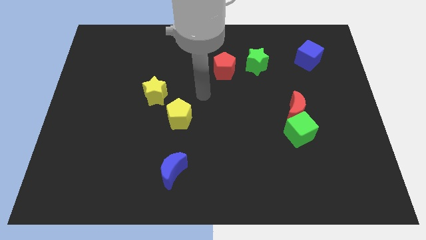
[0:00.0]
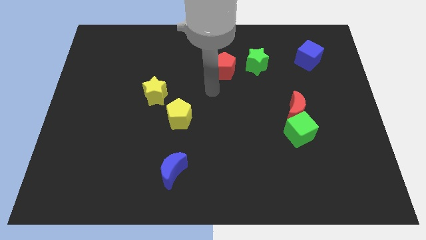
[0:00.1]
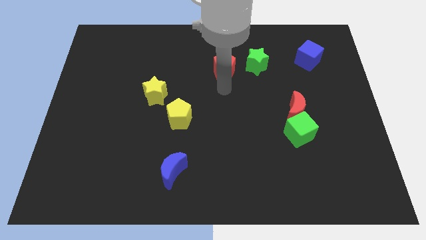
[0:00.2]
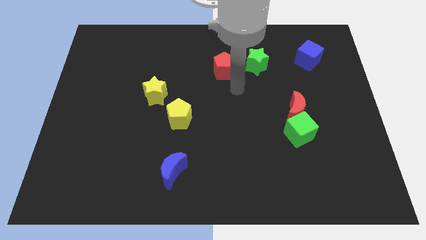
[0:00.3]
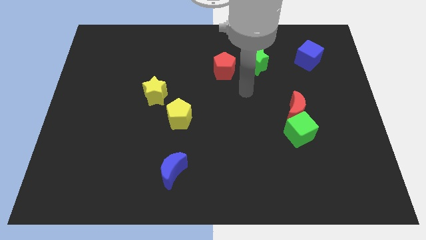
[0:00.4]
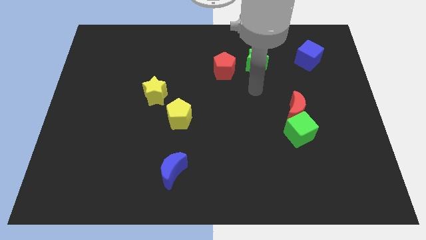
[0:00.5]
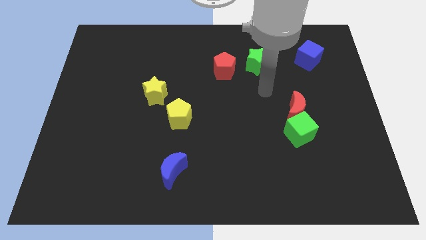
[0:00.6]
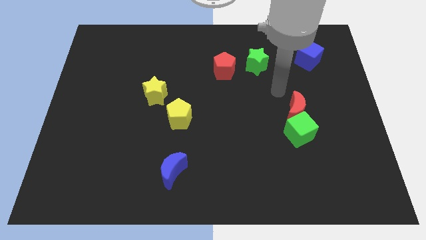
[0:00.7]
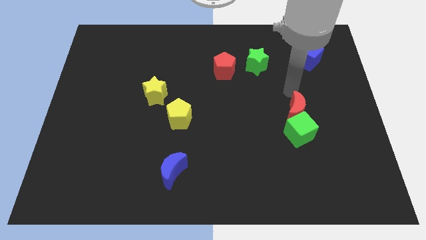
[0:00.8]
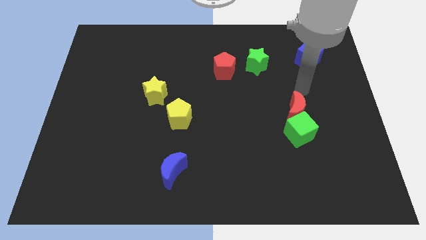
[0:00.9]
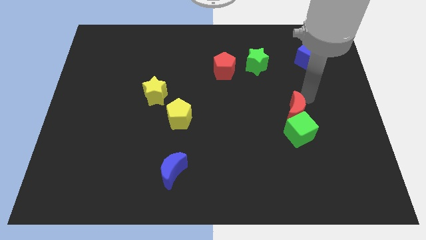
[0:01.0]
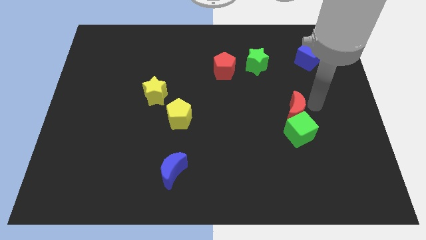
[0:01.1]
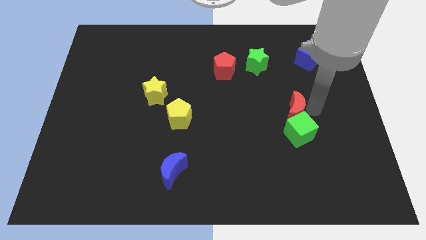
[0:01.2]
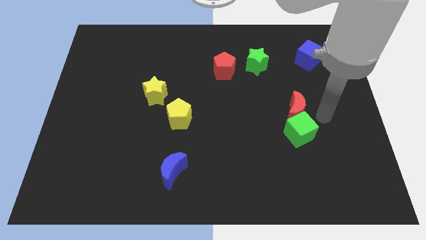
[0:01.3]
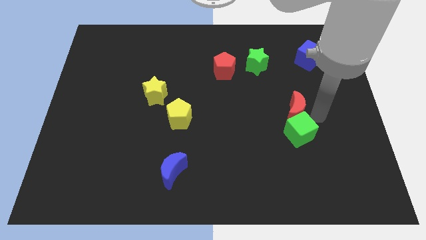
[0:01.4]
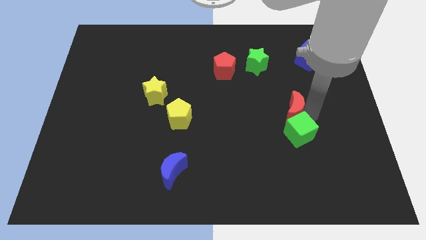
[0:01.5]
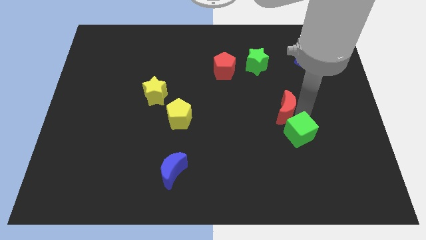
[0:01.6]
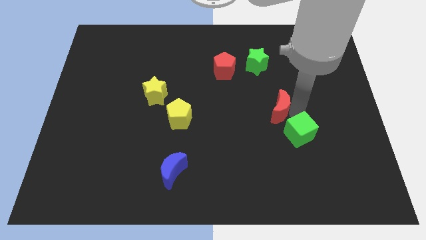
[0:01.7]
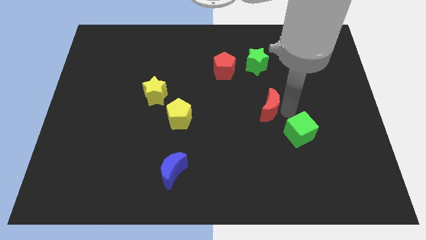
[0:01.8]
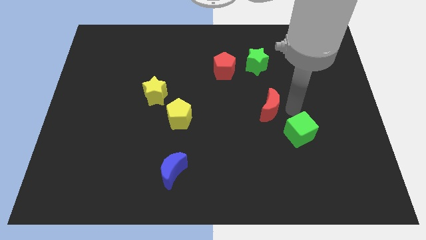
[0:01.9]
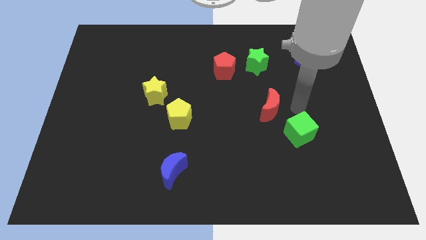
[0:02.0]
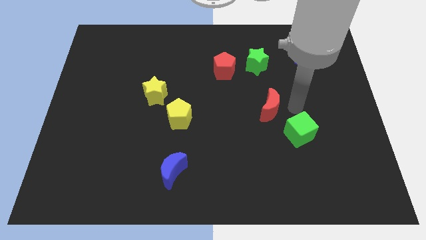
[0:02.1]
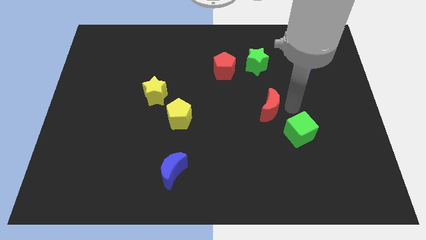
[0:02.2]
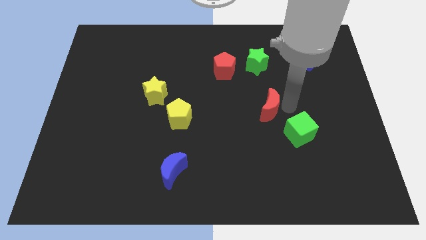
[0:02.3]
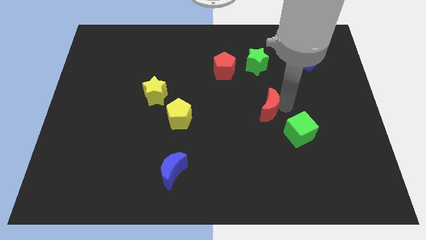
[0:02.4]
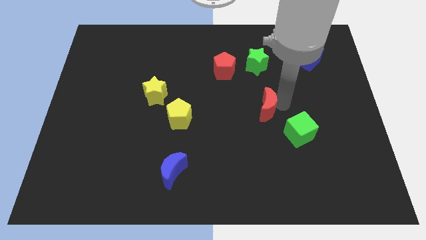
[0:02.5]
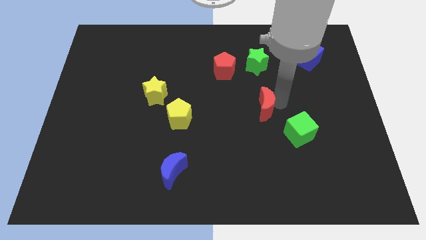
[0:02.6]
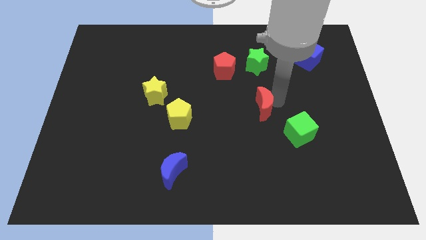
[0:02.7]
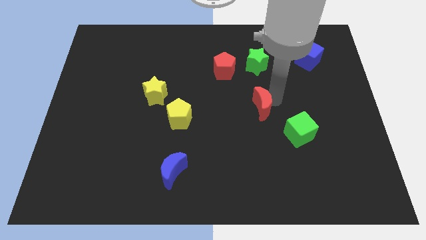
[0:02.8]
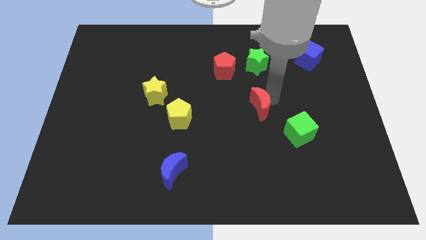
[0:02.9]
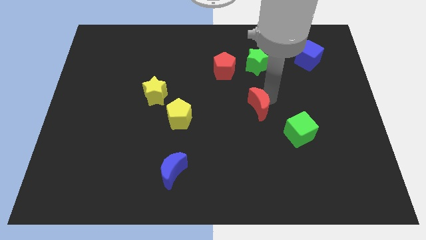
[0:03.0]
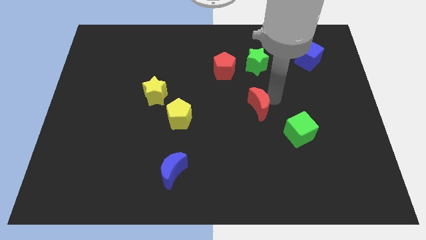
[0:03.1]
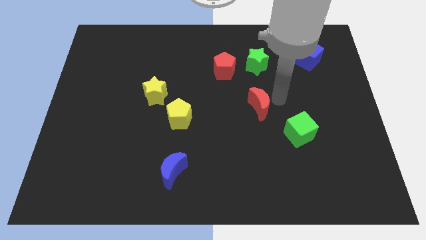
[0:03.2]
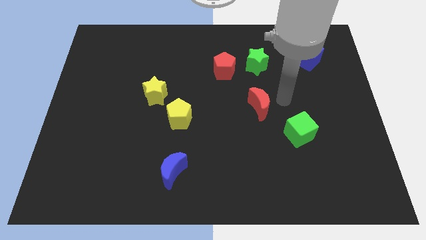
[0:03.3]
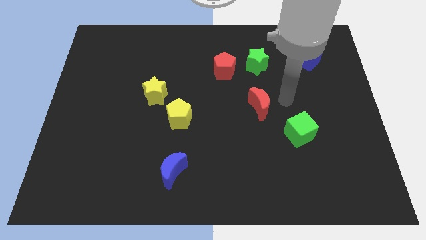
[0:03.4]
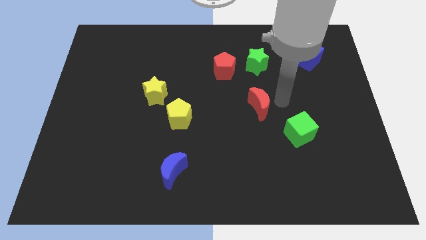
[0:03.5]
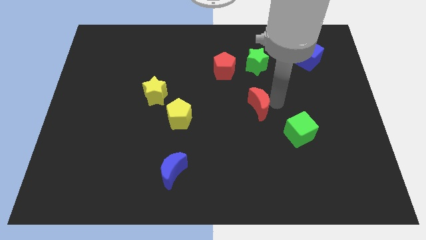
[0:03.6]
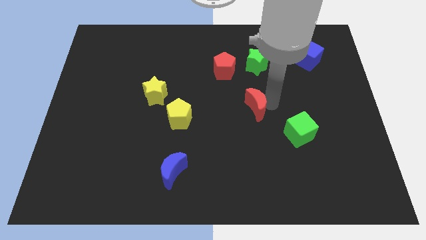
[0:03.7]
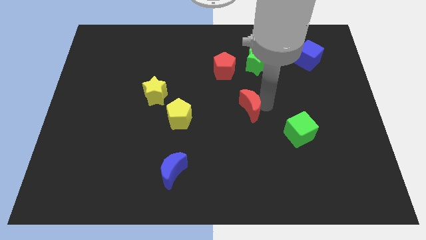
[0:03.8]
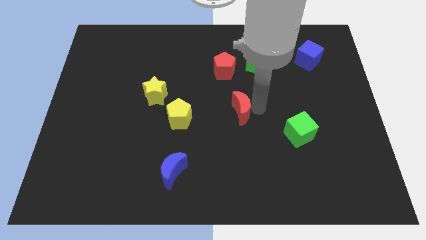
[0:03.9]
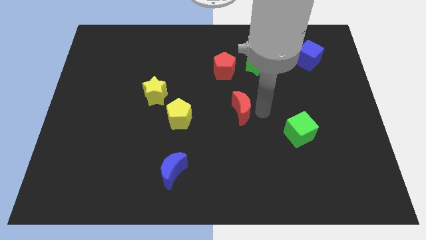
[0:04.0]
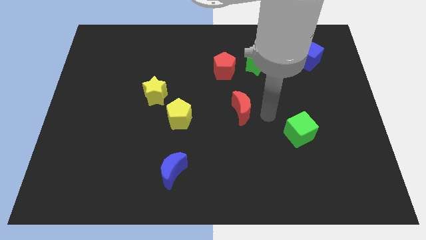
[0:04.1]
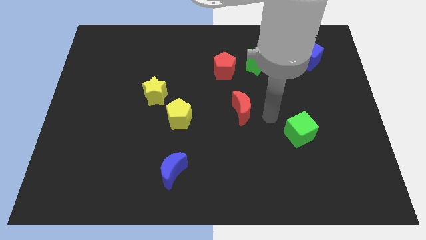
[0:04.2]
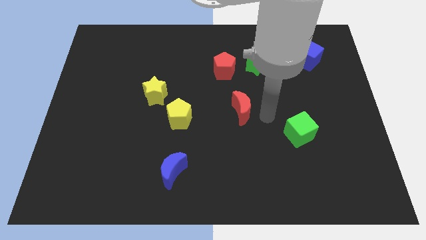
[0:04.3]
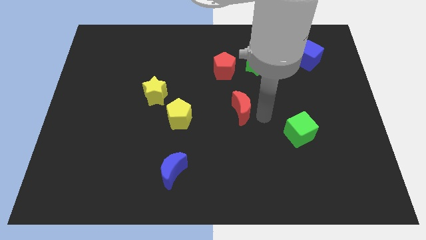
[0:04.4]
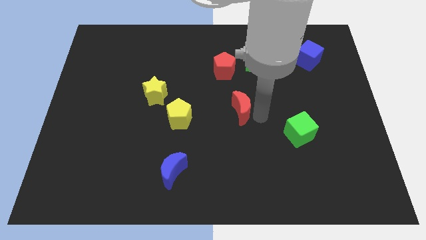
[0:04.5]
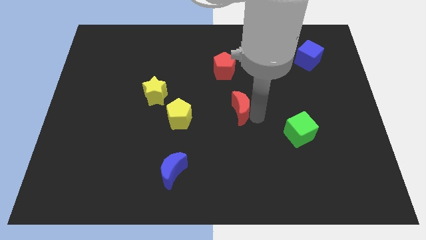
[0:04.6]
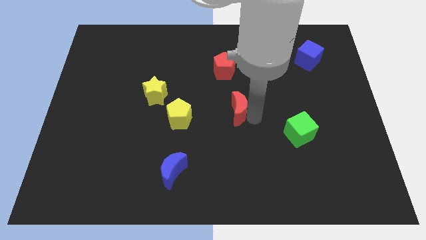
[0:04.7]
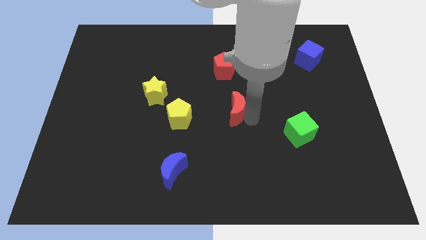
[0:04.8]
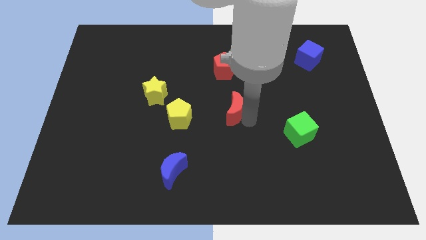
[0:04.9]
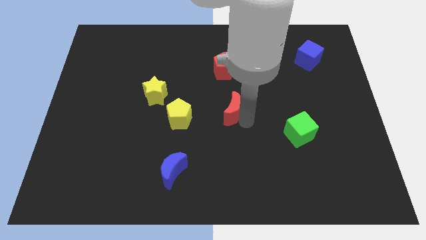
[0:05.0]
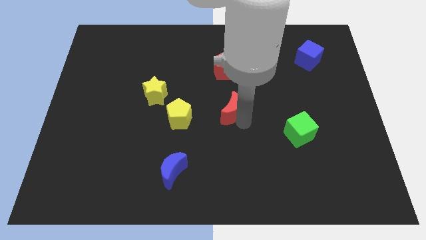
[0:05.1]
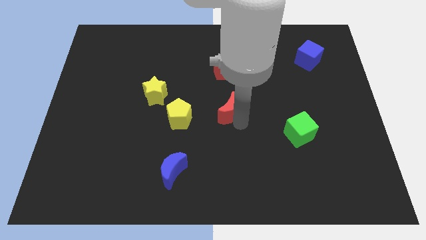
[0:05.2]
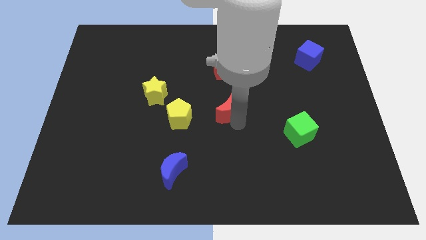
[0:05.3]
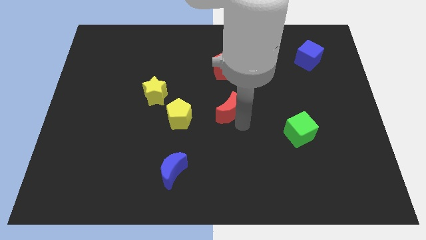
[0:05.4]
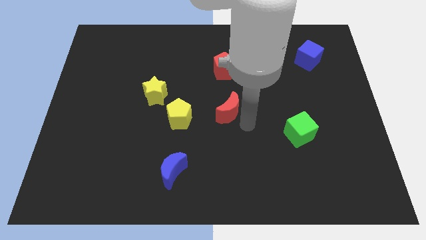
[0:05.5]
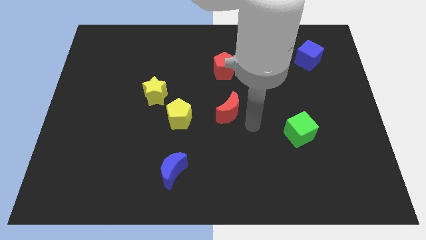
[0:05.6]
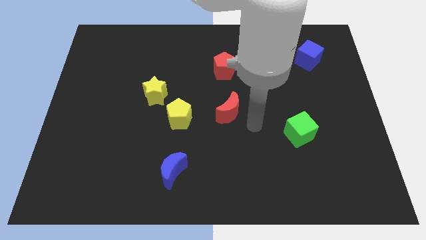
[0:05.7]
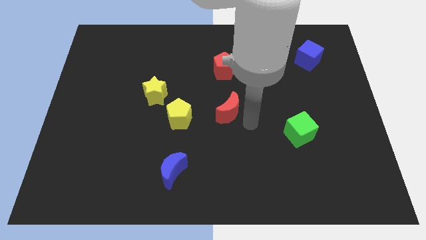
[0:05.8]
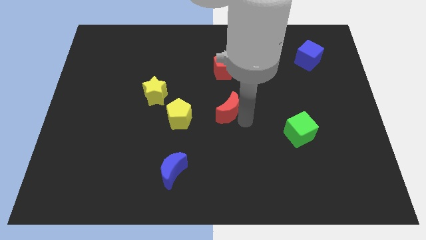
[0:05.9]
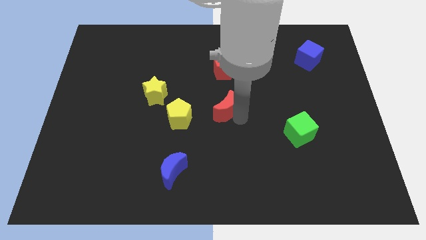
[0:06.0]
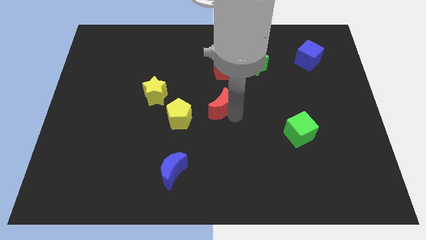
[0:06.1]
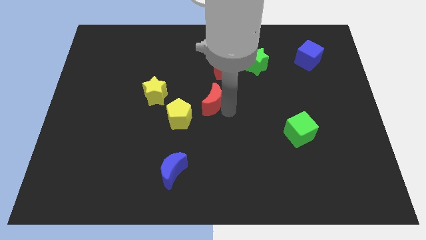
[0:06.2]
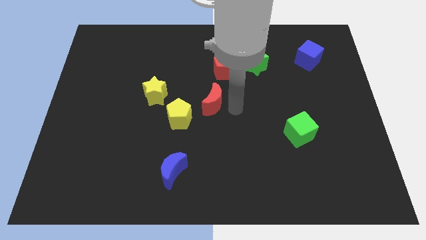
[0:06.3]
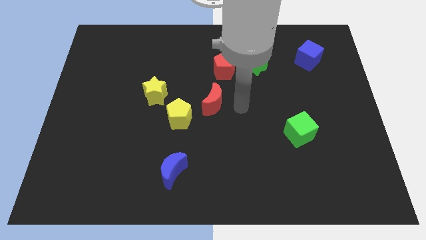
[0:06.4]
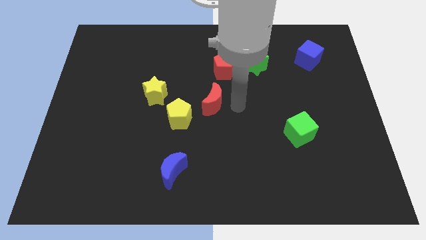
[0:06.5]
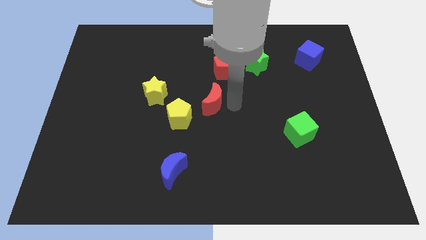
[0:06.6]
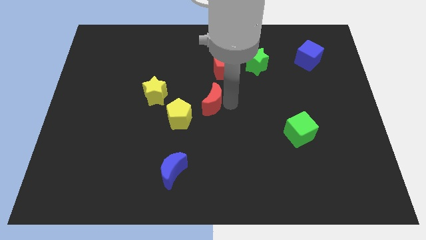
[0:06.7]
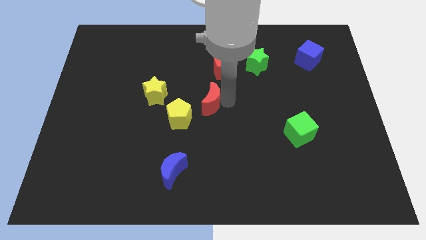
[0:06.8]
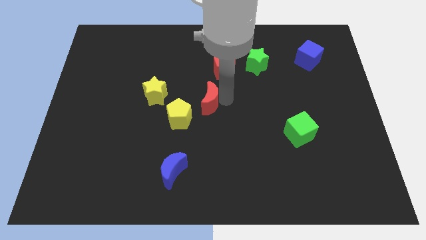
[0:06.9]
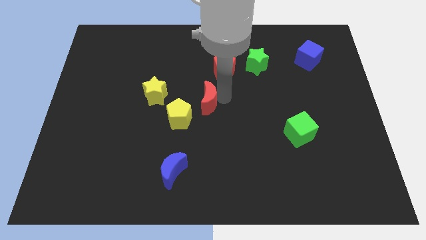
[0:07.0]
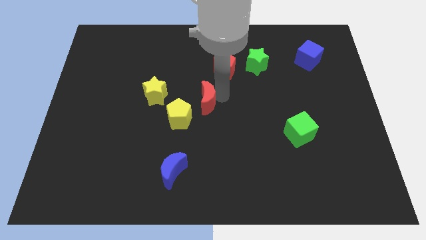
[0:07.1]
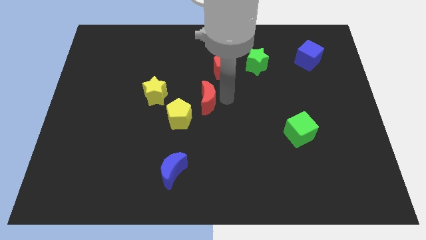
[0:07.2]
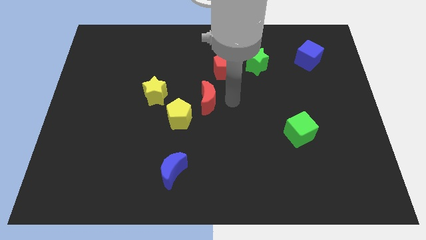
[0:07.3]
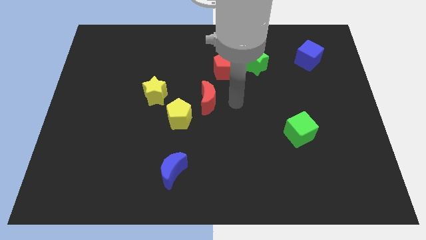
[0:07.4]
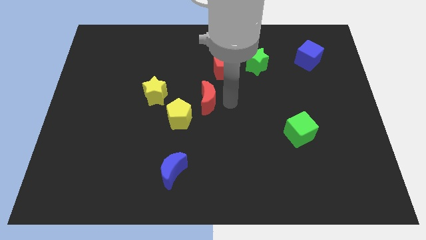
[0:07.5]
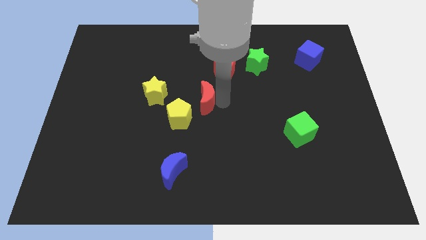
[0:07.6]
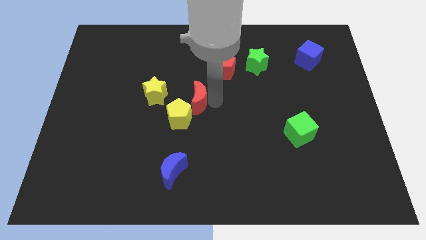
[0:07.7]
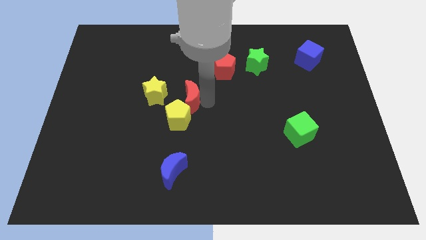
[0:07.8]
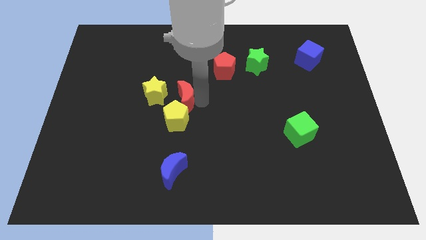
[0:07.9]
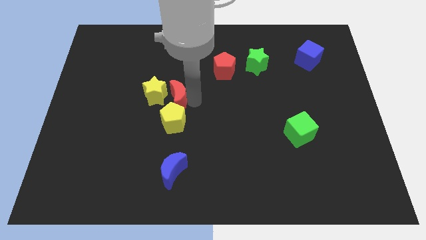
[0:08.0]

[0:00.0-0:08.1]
push the red moon towards the yellow star
